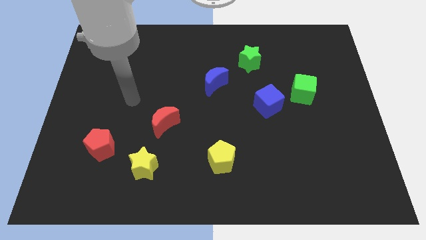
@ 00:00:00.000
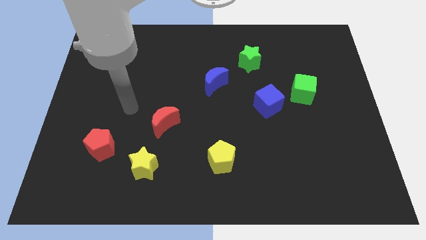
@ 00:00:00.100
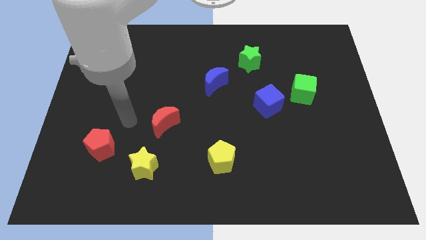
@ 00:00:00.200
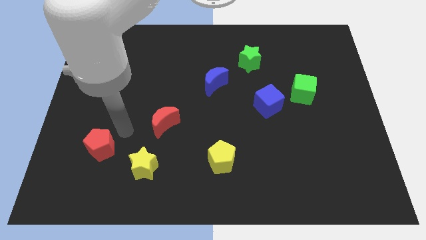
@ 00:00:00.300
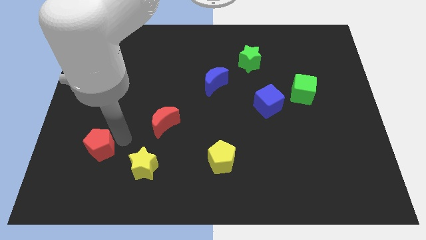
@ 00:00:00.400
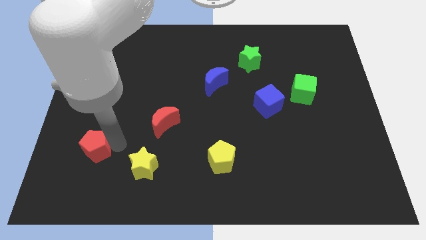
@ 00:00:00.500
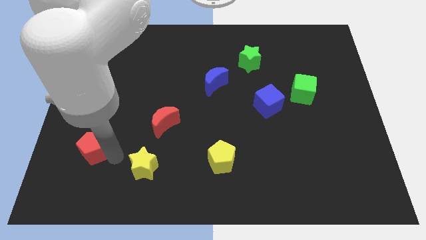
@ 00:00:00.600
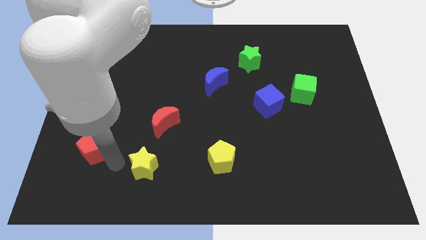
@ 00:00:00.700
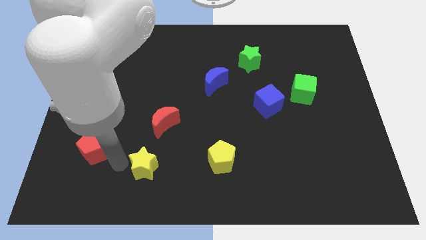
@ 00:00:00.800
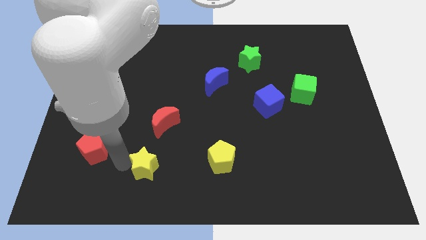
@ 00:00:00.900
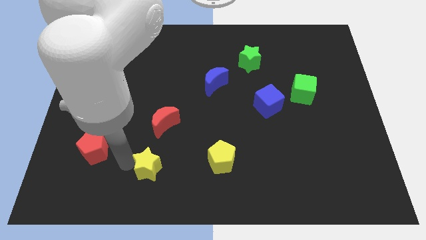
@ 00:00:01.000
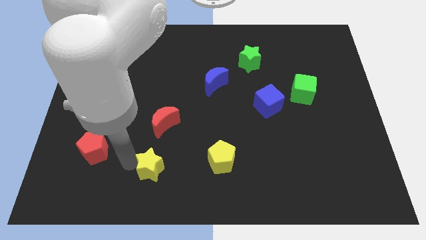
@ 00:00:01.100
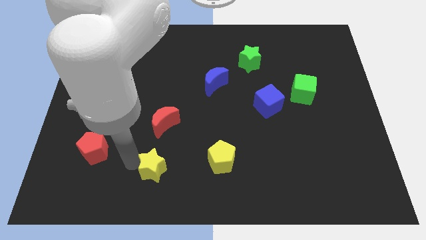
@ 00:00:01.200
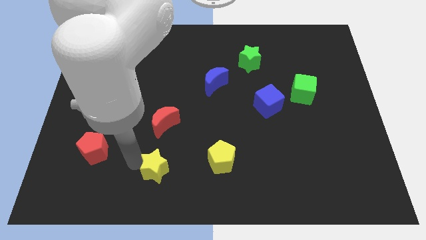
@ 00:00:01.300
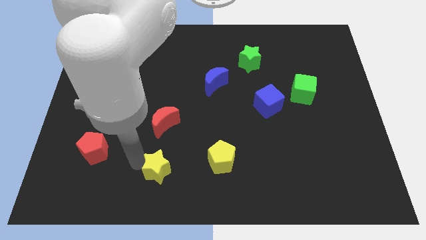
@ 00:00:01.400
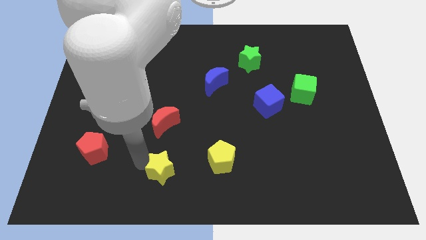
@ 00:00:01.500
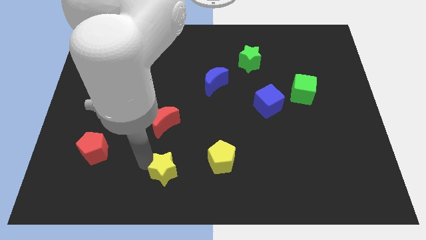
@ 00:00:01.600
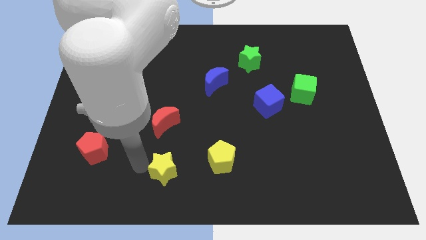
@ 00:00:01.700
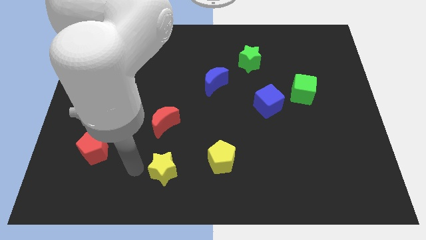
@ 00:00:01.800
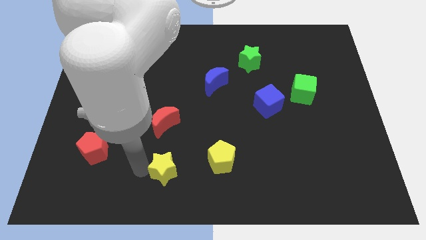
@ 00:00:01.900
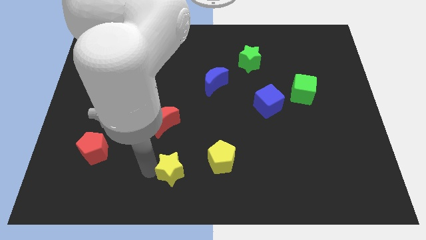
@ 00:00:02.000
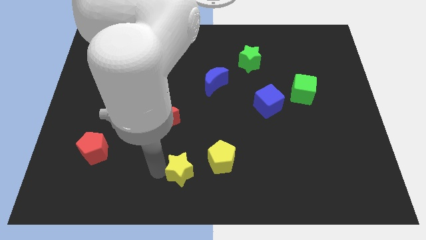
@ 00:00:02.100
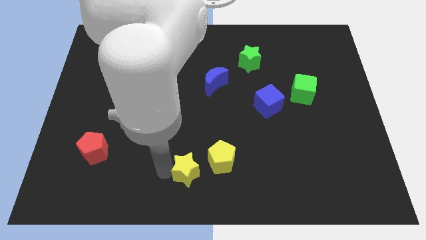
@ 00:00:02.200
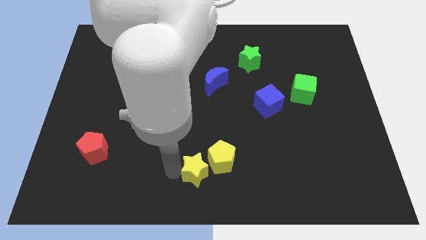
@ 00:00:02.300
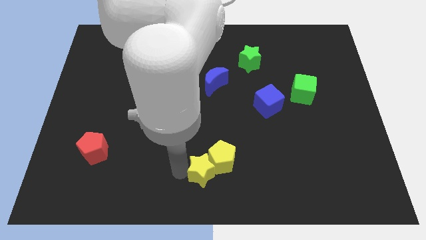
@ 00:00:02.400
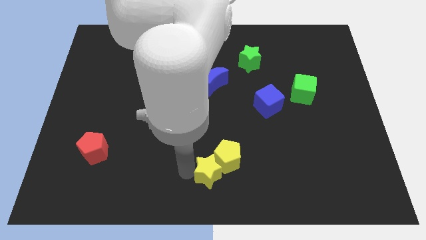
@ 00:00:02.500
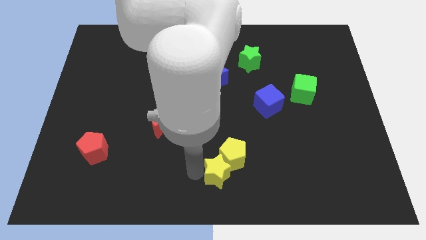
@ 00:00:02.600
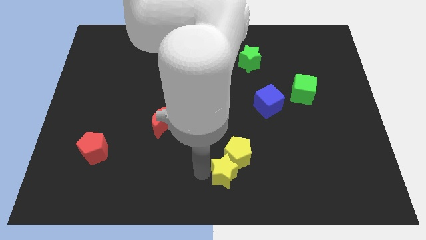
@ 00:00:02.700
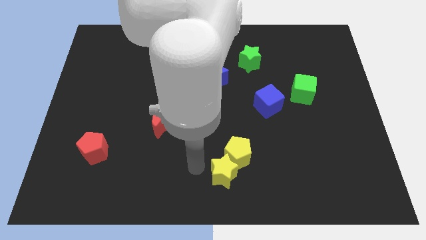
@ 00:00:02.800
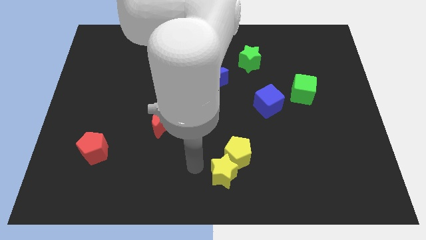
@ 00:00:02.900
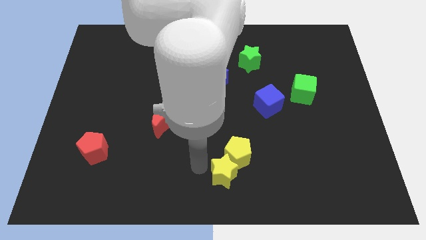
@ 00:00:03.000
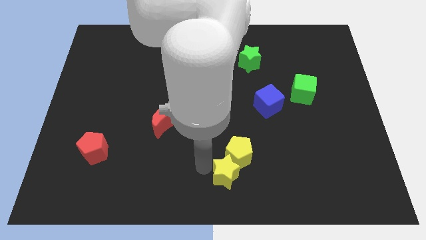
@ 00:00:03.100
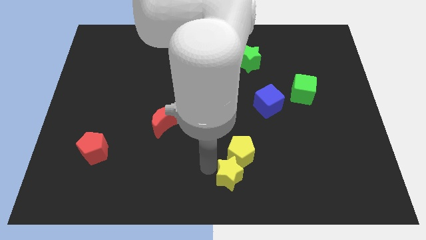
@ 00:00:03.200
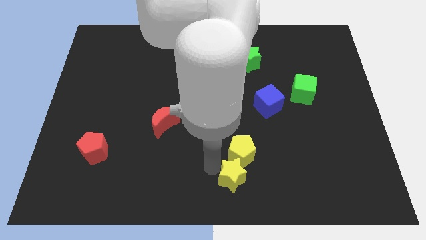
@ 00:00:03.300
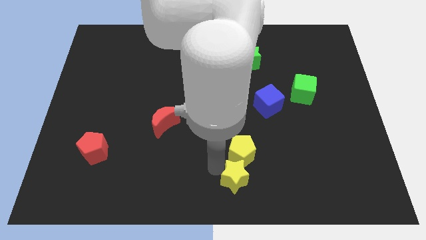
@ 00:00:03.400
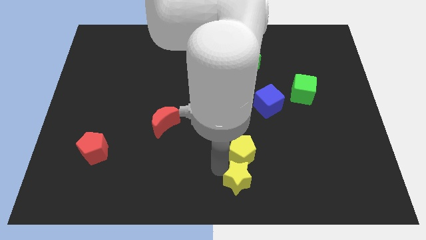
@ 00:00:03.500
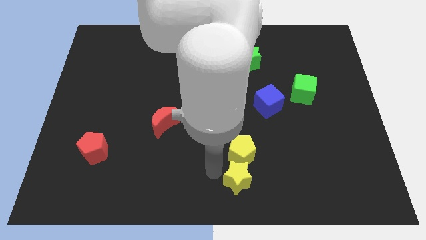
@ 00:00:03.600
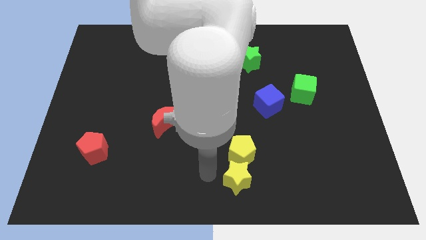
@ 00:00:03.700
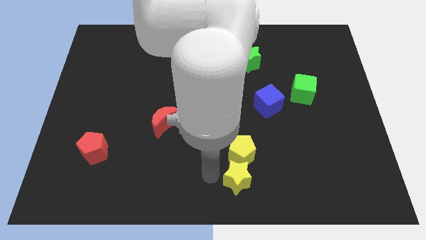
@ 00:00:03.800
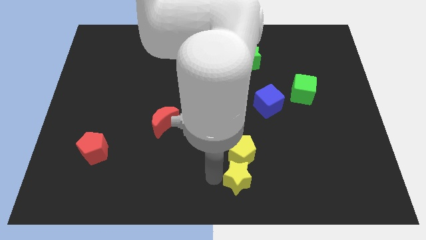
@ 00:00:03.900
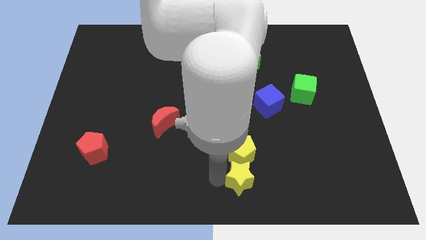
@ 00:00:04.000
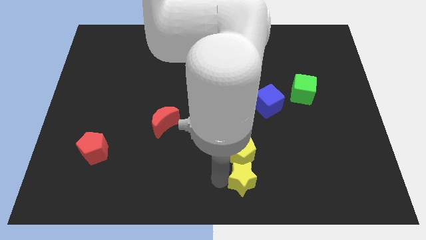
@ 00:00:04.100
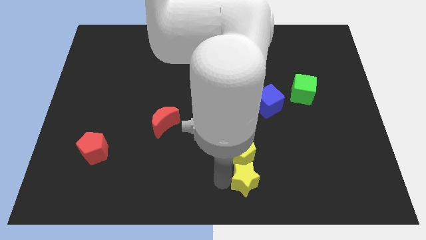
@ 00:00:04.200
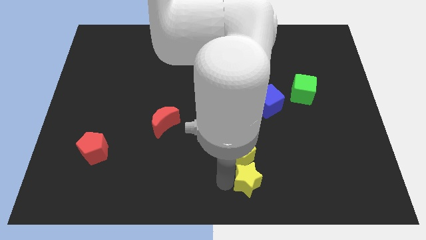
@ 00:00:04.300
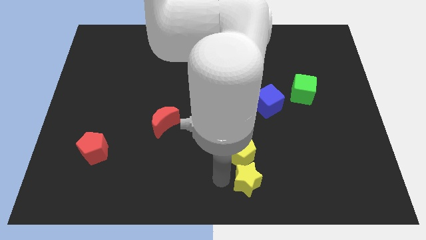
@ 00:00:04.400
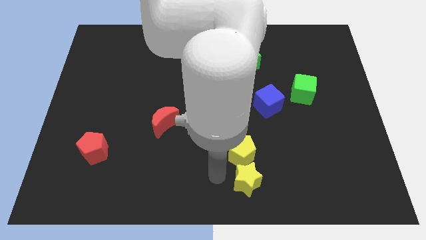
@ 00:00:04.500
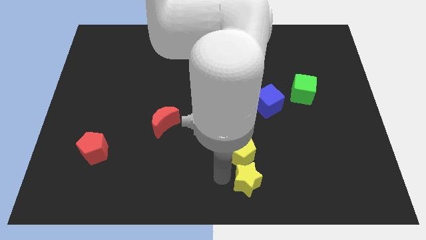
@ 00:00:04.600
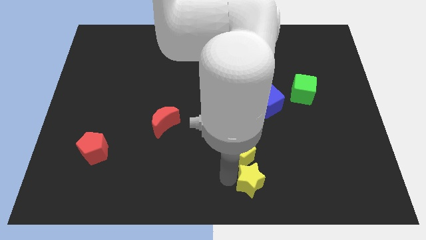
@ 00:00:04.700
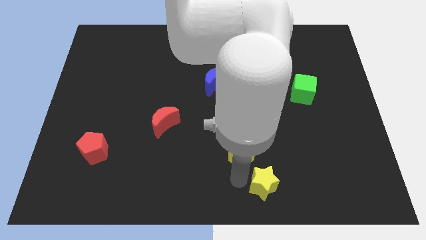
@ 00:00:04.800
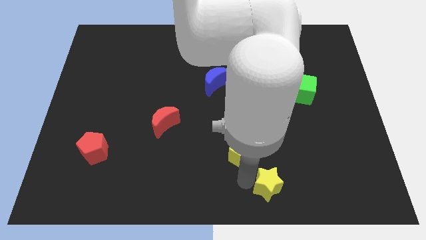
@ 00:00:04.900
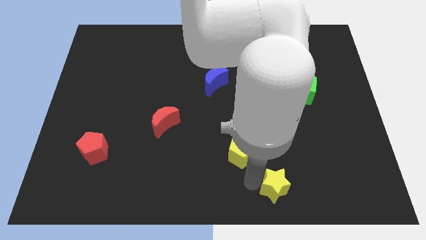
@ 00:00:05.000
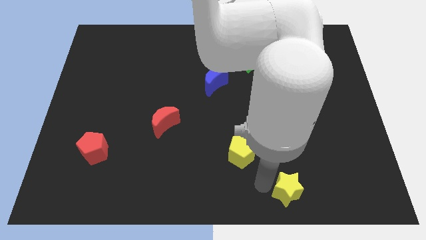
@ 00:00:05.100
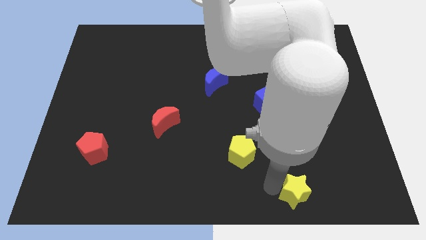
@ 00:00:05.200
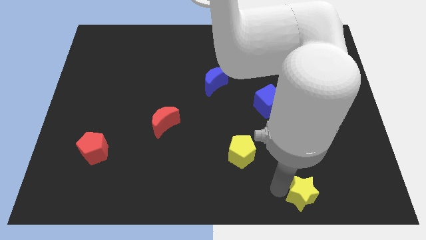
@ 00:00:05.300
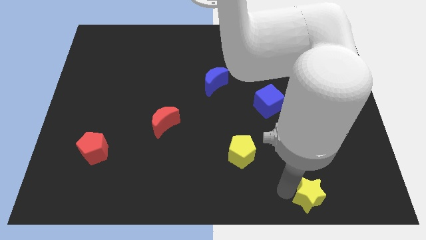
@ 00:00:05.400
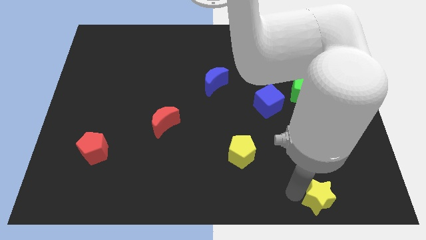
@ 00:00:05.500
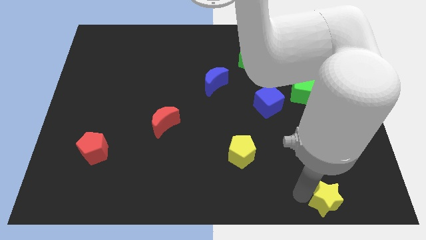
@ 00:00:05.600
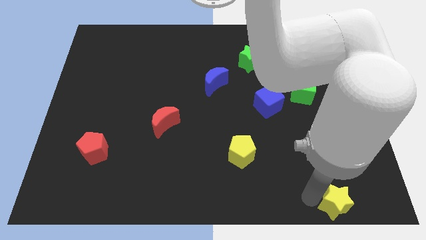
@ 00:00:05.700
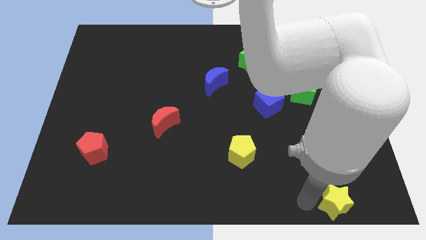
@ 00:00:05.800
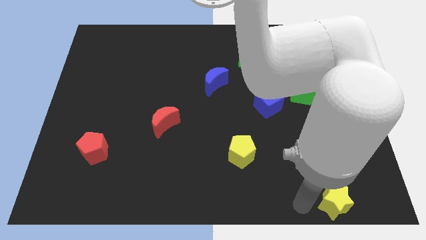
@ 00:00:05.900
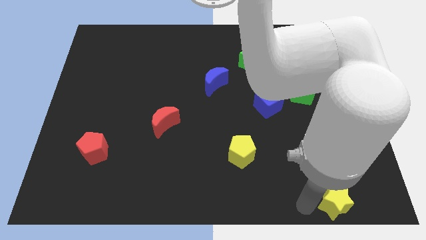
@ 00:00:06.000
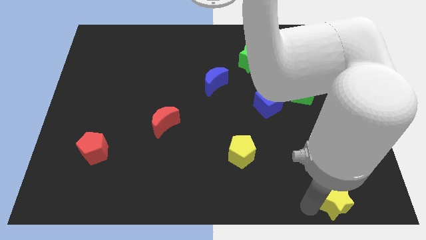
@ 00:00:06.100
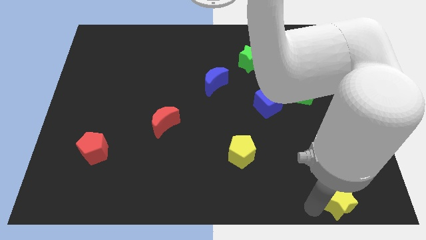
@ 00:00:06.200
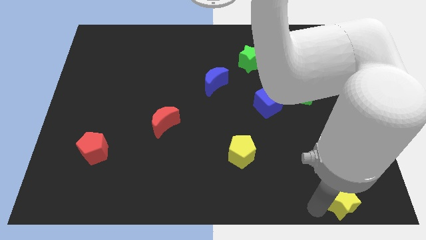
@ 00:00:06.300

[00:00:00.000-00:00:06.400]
slide the yellow star to the lower right corner
